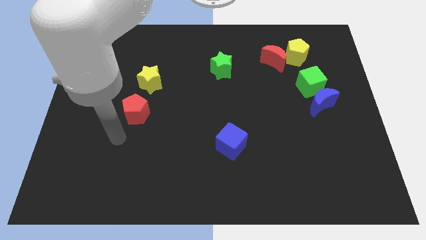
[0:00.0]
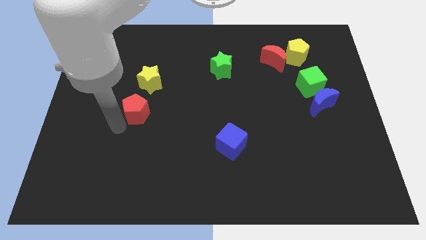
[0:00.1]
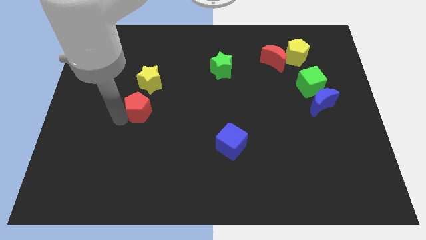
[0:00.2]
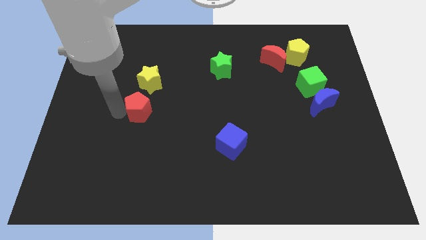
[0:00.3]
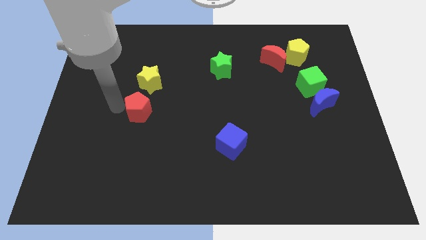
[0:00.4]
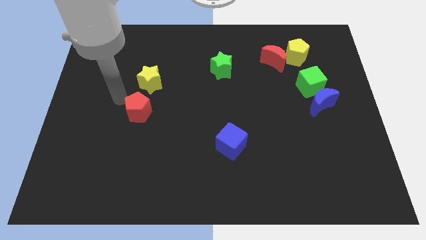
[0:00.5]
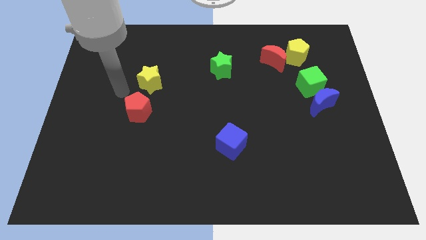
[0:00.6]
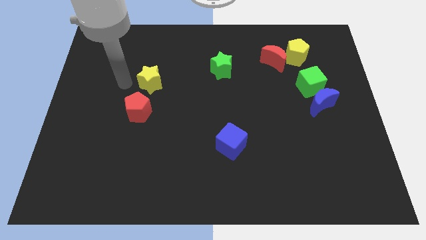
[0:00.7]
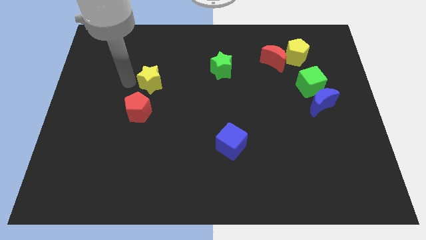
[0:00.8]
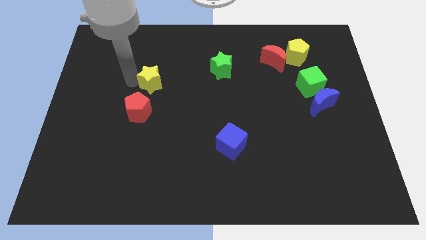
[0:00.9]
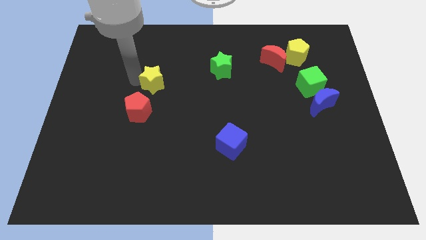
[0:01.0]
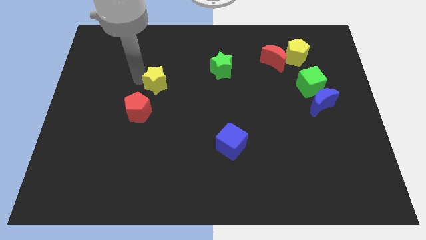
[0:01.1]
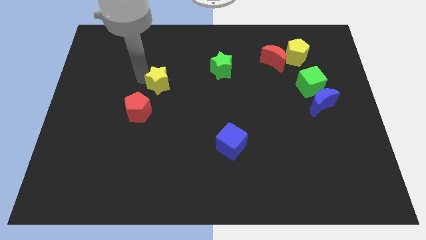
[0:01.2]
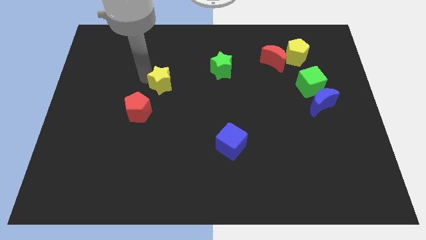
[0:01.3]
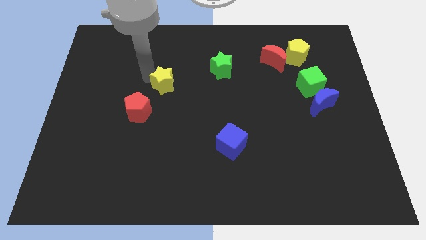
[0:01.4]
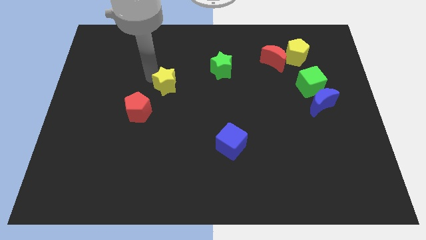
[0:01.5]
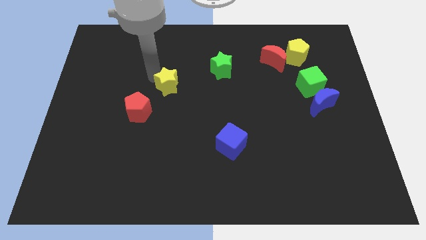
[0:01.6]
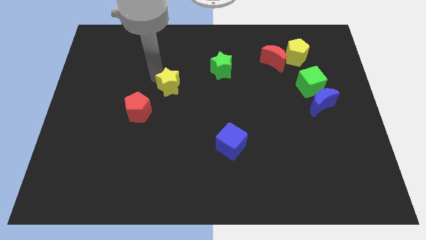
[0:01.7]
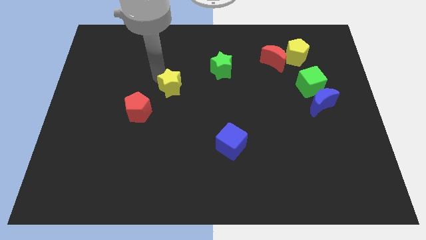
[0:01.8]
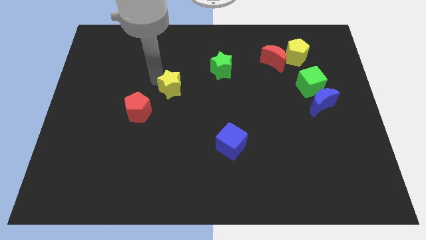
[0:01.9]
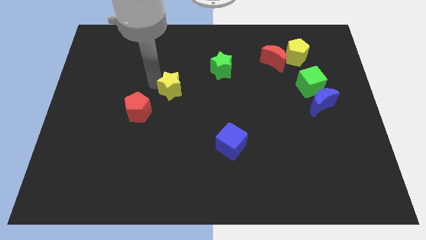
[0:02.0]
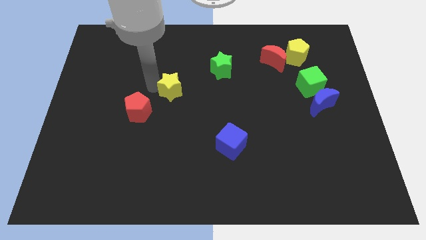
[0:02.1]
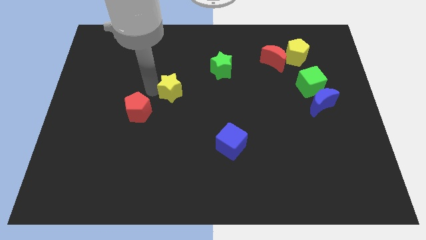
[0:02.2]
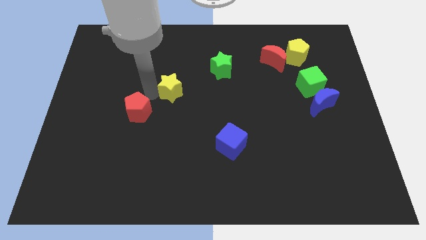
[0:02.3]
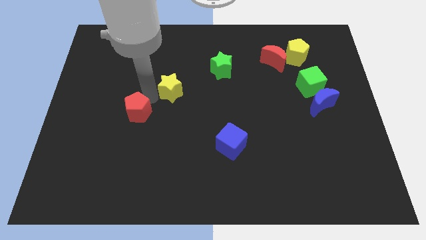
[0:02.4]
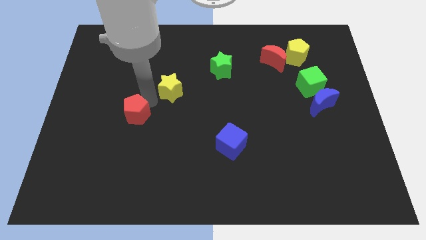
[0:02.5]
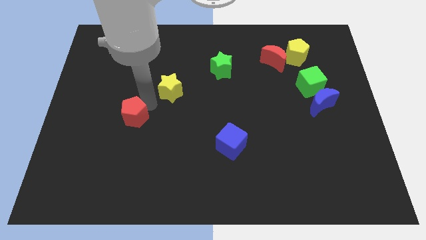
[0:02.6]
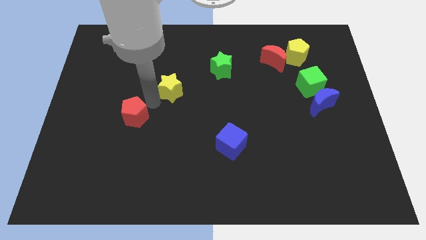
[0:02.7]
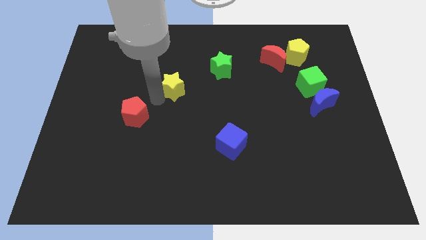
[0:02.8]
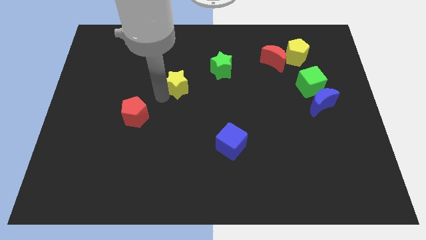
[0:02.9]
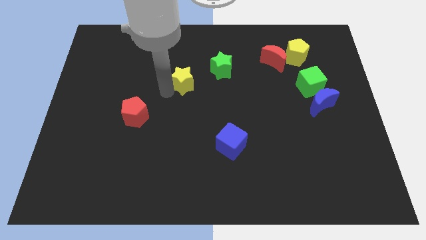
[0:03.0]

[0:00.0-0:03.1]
move the yellow star a little bit right

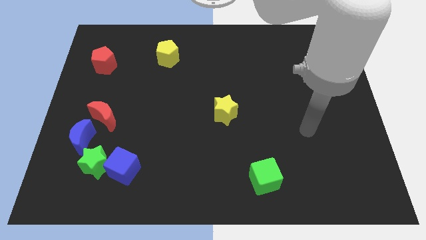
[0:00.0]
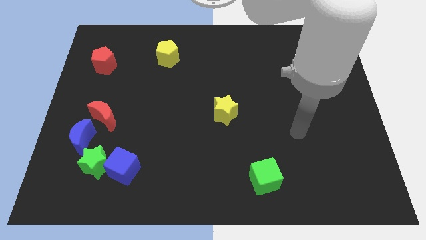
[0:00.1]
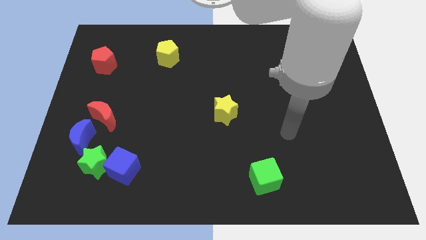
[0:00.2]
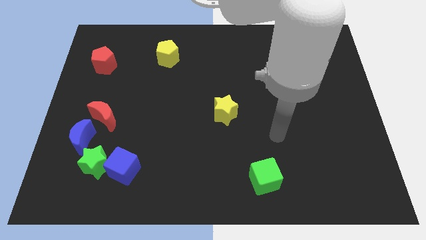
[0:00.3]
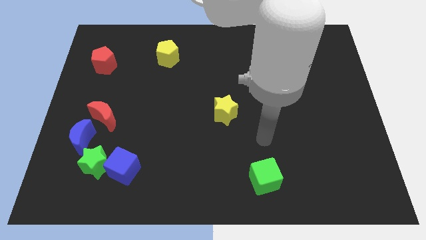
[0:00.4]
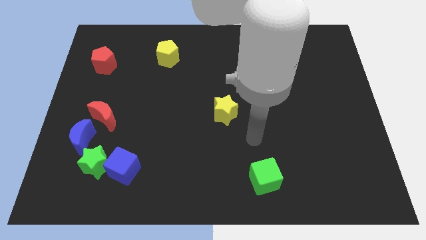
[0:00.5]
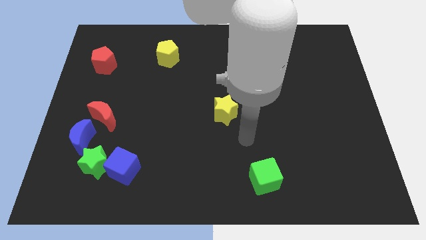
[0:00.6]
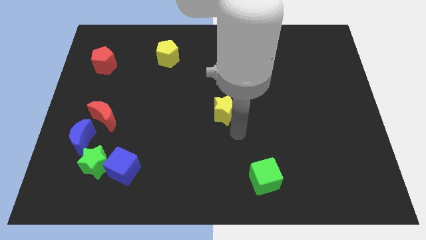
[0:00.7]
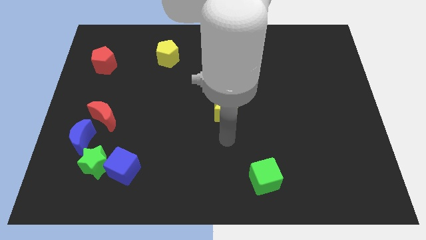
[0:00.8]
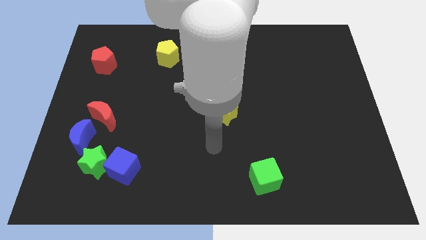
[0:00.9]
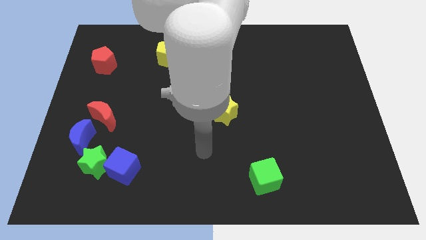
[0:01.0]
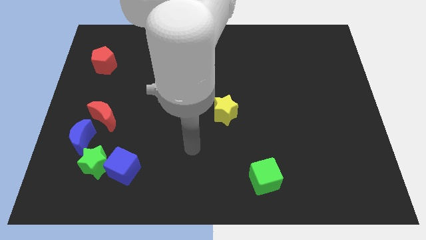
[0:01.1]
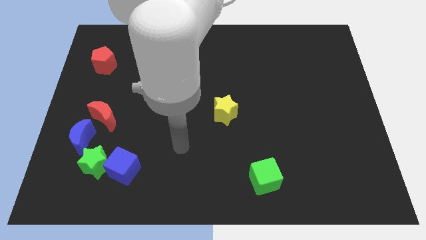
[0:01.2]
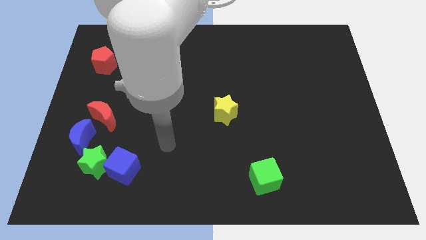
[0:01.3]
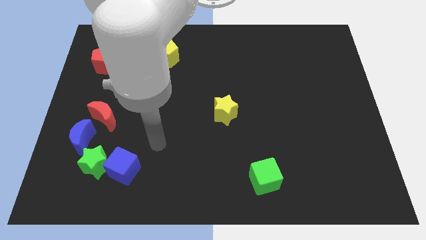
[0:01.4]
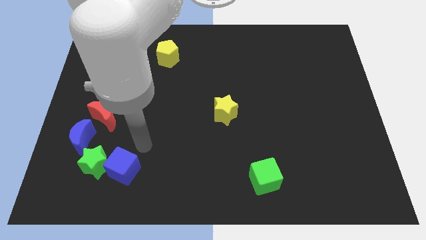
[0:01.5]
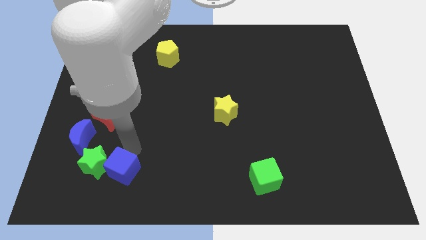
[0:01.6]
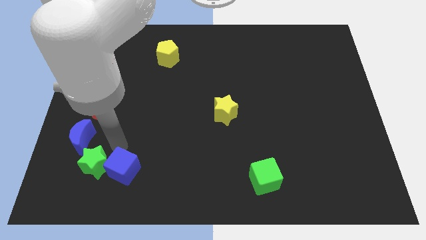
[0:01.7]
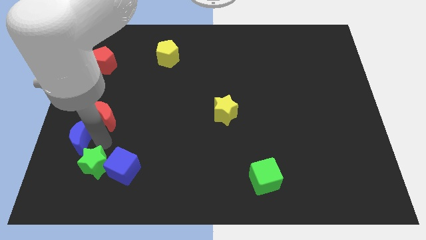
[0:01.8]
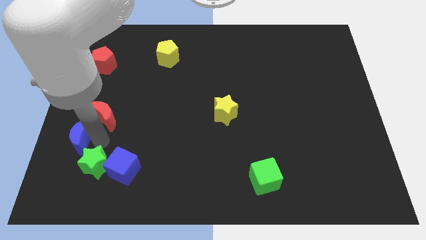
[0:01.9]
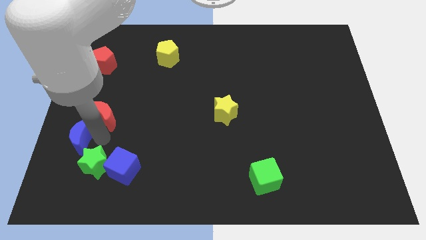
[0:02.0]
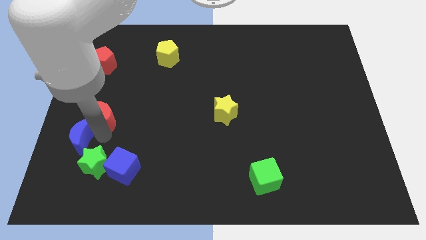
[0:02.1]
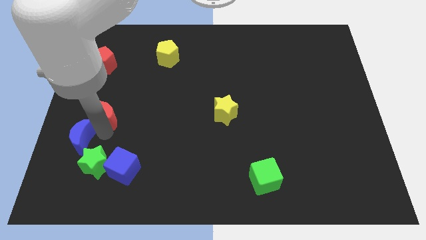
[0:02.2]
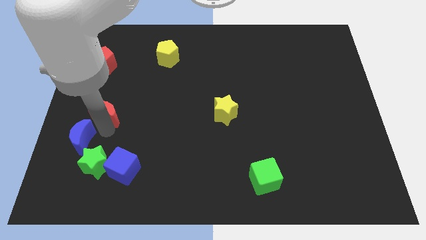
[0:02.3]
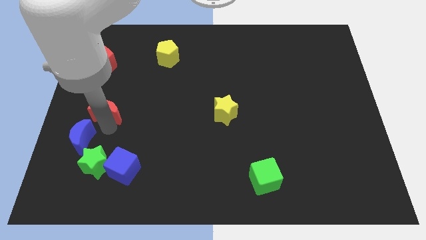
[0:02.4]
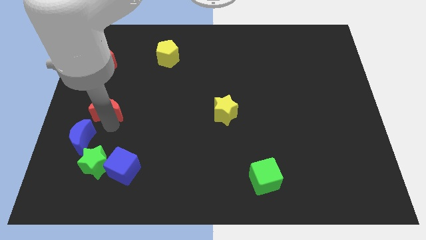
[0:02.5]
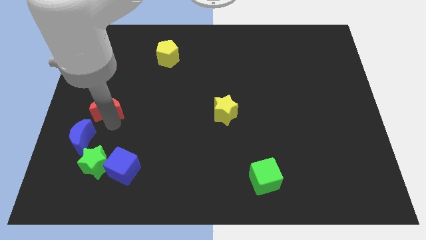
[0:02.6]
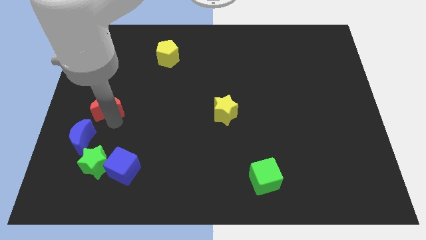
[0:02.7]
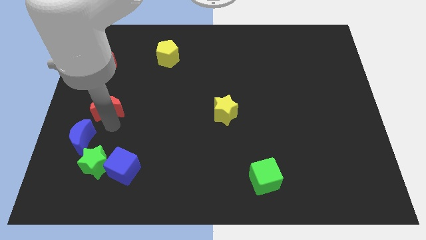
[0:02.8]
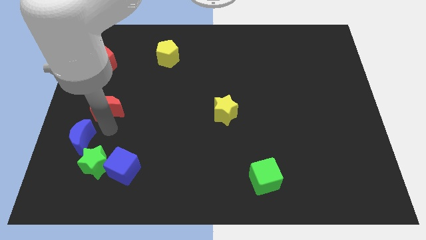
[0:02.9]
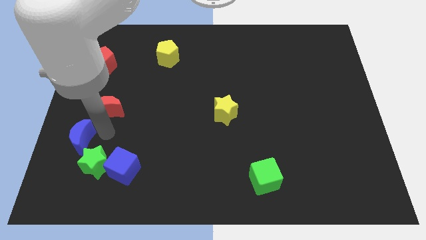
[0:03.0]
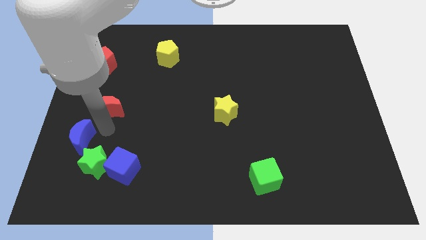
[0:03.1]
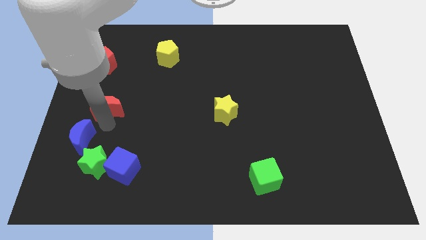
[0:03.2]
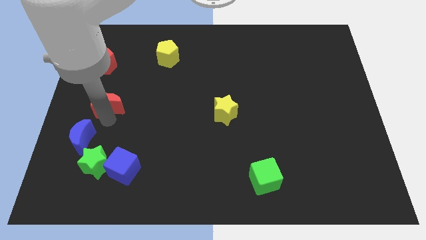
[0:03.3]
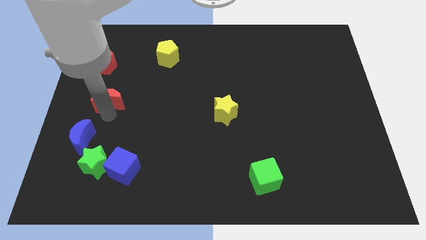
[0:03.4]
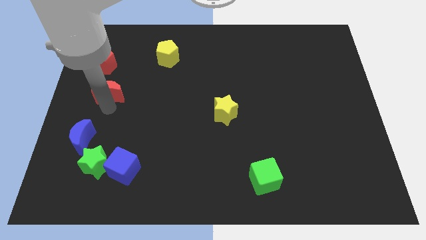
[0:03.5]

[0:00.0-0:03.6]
push the red moon a little bit up

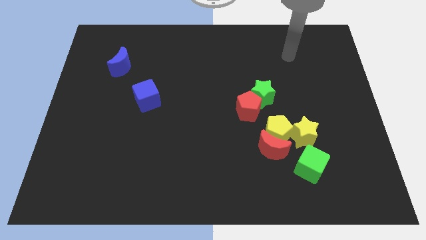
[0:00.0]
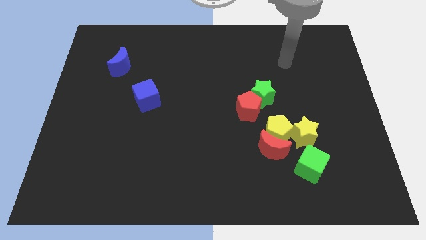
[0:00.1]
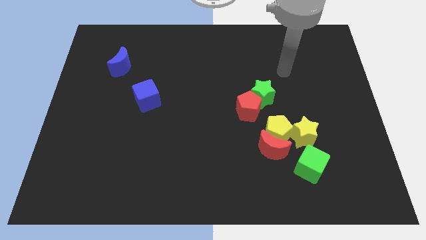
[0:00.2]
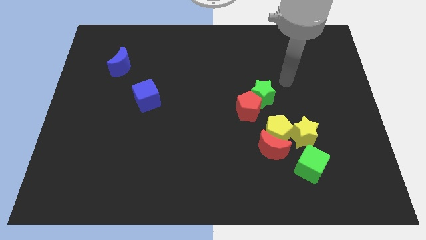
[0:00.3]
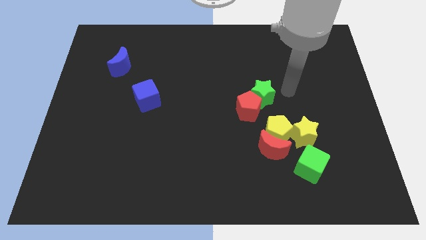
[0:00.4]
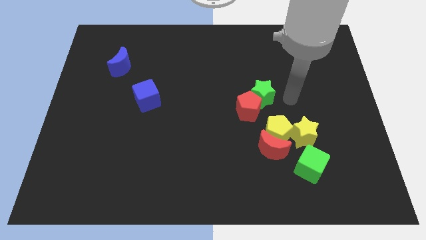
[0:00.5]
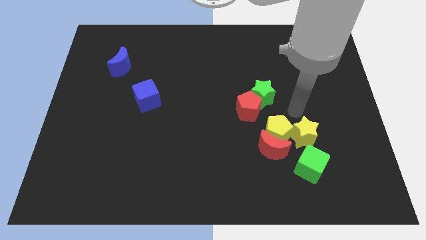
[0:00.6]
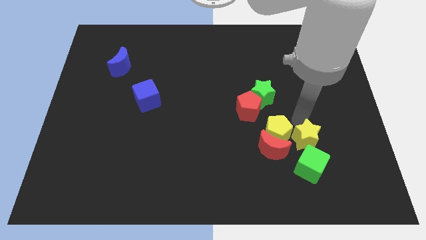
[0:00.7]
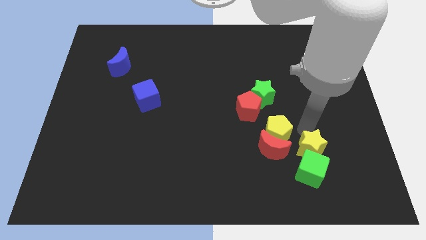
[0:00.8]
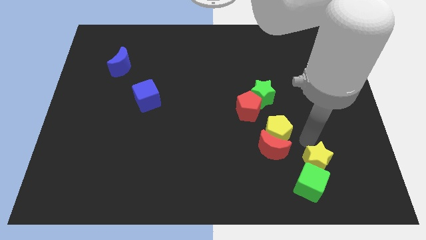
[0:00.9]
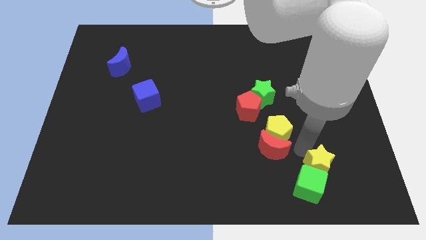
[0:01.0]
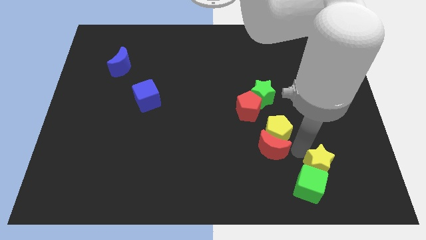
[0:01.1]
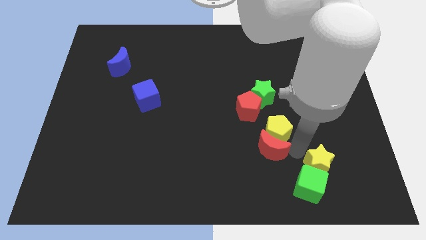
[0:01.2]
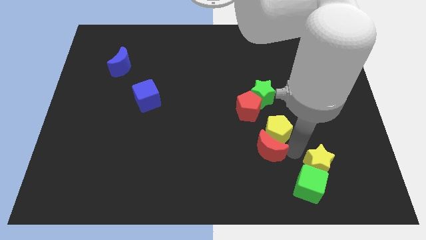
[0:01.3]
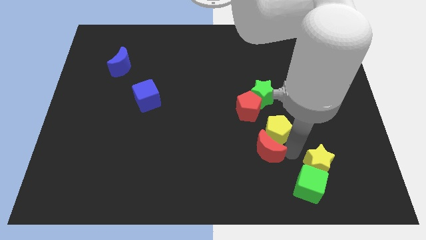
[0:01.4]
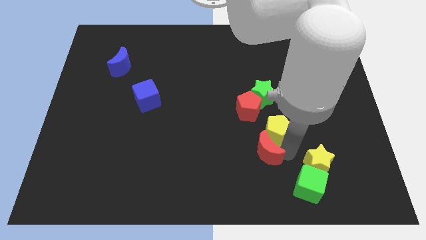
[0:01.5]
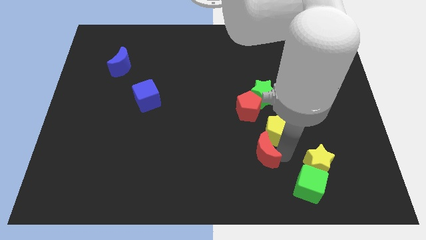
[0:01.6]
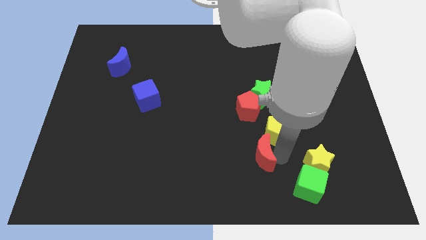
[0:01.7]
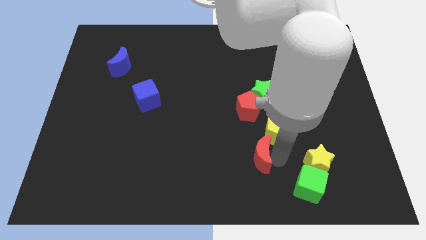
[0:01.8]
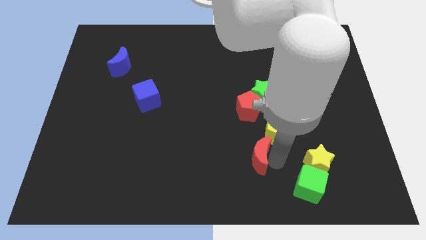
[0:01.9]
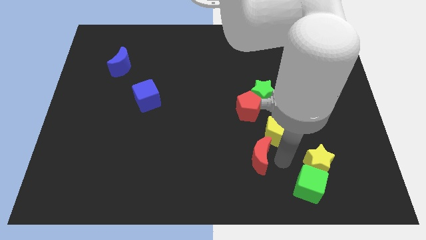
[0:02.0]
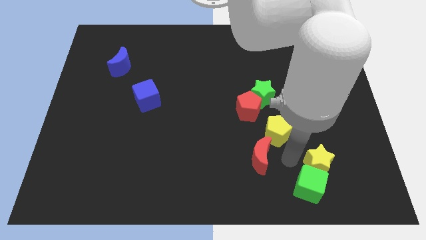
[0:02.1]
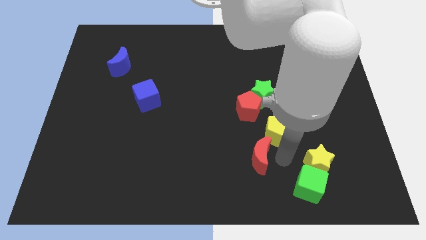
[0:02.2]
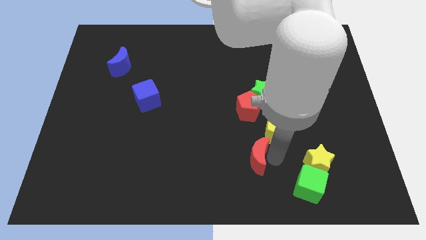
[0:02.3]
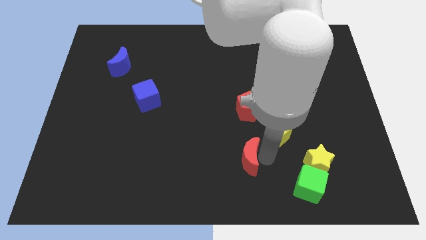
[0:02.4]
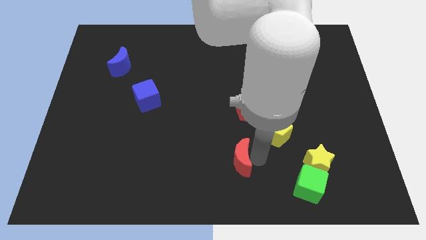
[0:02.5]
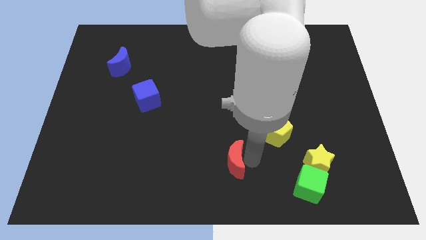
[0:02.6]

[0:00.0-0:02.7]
slide the red moon to the left a bit
